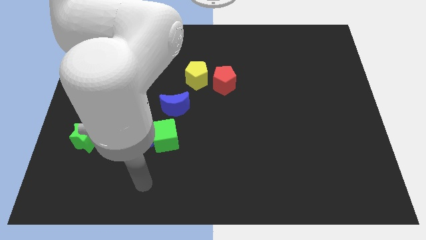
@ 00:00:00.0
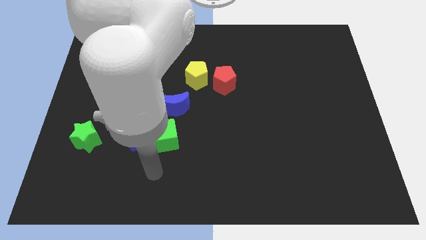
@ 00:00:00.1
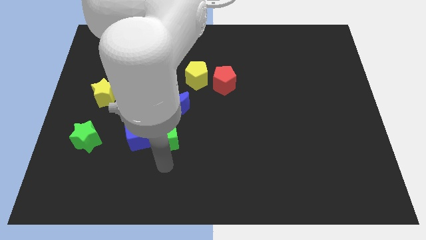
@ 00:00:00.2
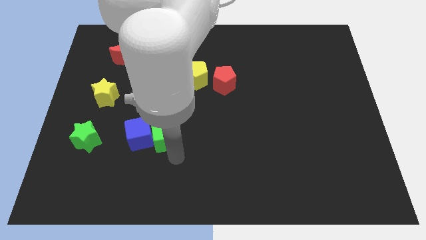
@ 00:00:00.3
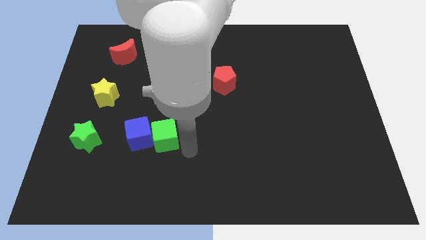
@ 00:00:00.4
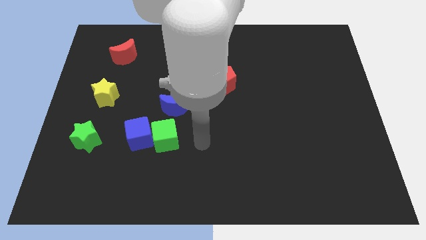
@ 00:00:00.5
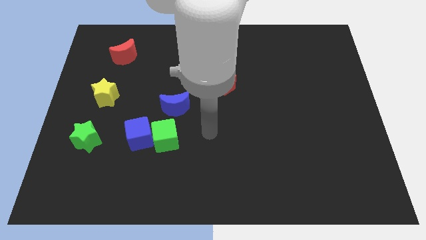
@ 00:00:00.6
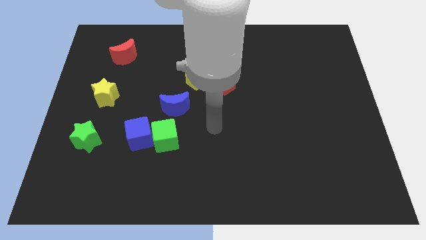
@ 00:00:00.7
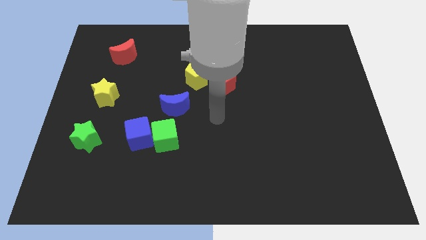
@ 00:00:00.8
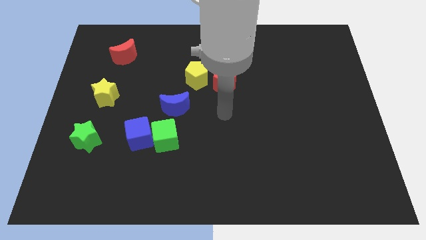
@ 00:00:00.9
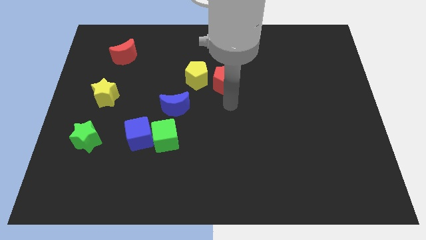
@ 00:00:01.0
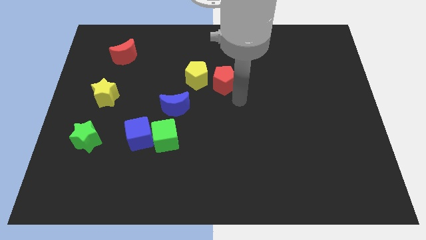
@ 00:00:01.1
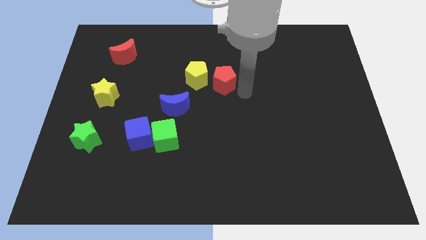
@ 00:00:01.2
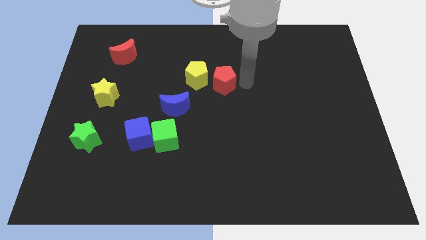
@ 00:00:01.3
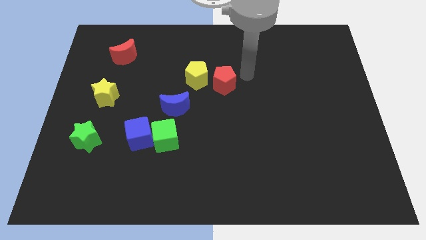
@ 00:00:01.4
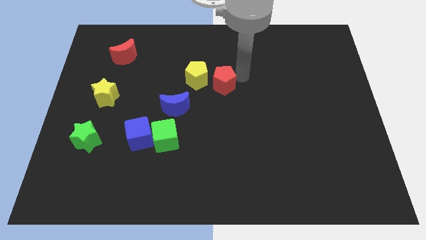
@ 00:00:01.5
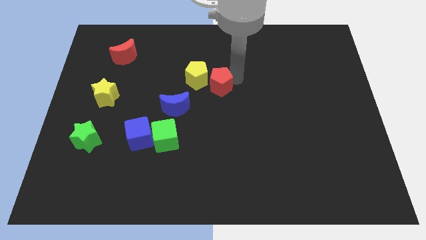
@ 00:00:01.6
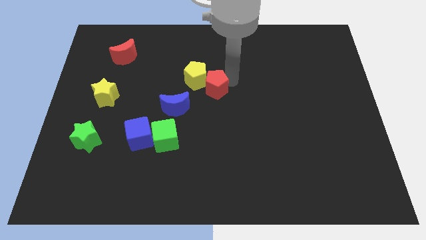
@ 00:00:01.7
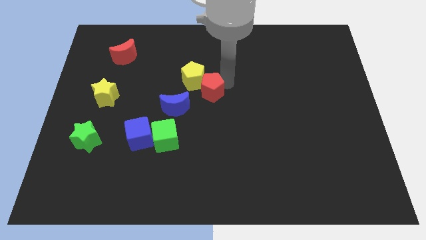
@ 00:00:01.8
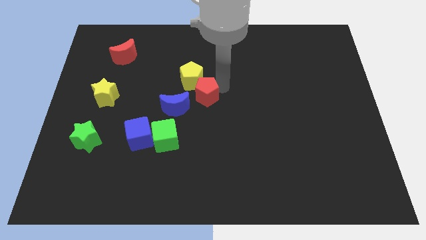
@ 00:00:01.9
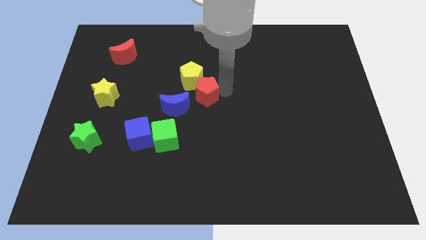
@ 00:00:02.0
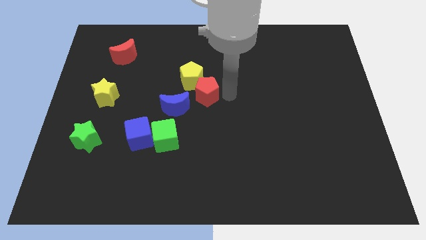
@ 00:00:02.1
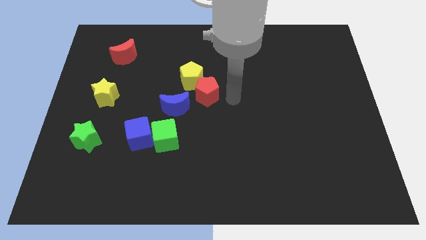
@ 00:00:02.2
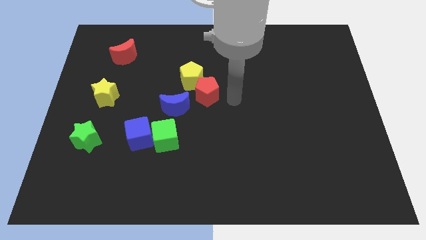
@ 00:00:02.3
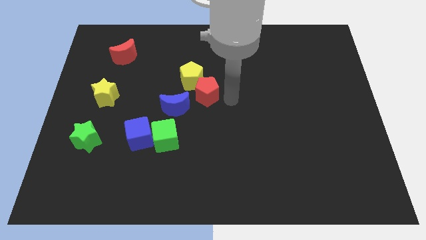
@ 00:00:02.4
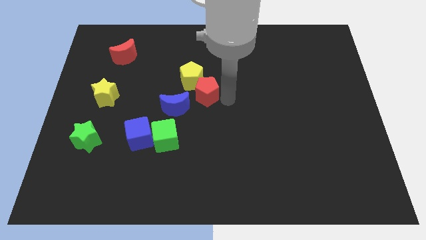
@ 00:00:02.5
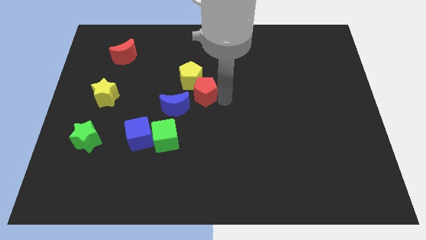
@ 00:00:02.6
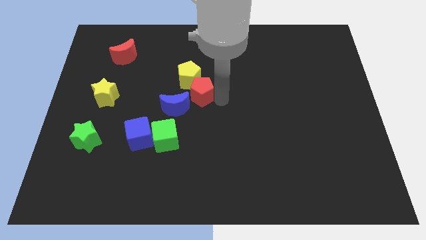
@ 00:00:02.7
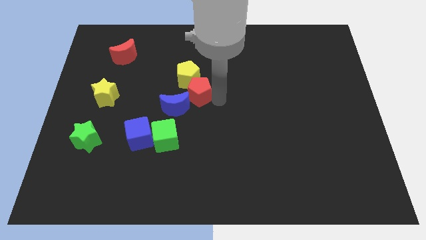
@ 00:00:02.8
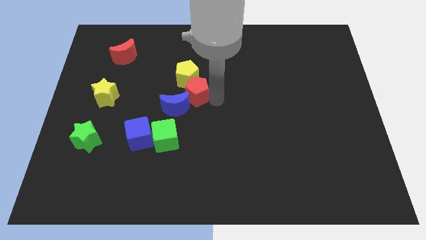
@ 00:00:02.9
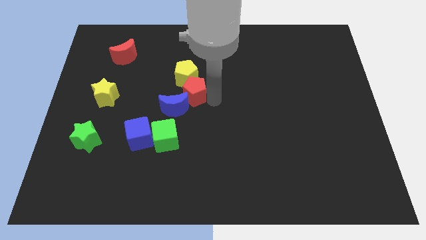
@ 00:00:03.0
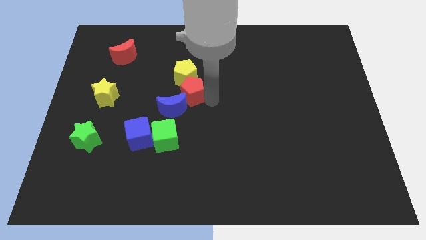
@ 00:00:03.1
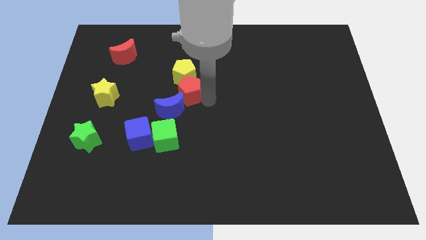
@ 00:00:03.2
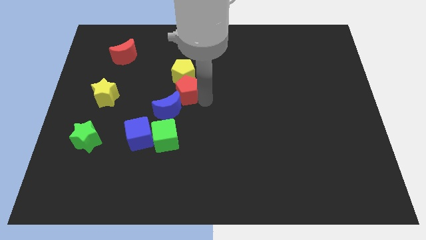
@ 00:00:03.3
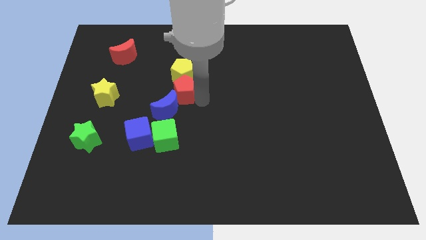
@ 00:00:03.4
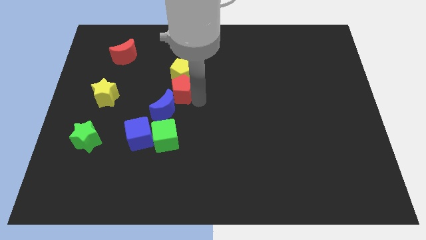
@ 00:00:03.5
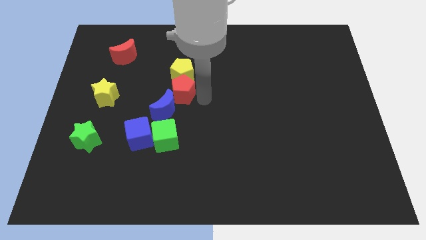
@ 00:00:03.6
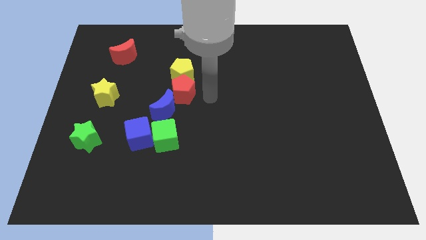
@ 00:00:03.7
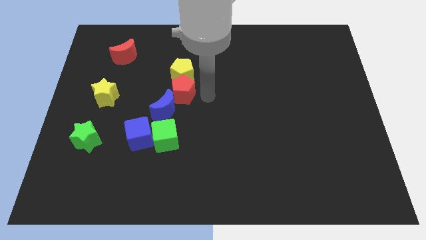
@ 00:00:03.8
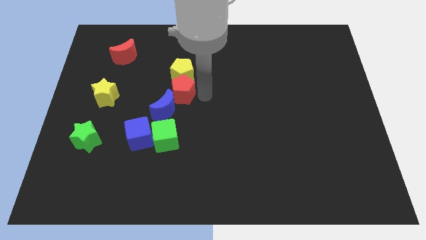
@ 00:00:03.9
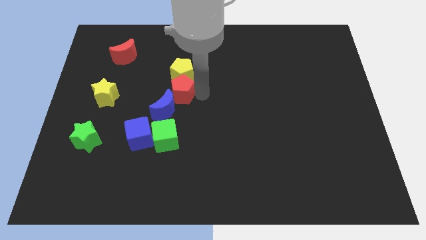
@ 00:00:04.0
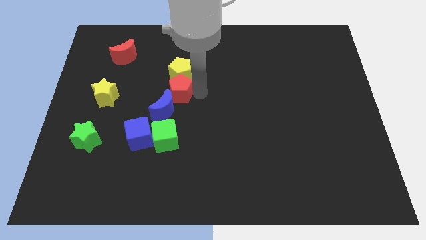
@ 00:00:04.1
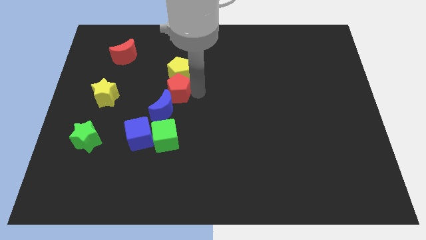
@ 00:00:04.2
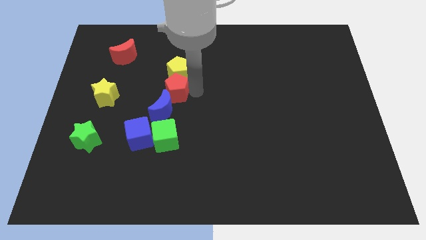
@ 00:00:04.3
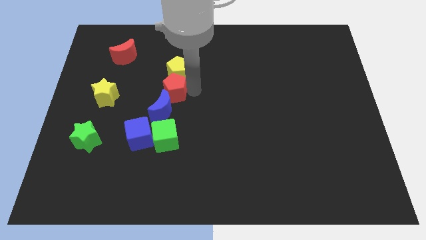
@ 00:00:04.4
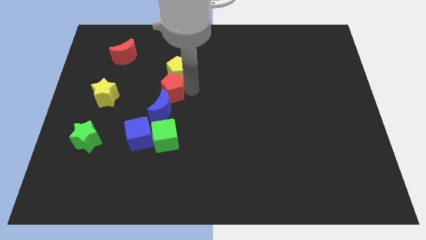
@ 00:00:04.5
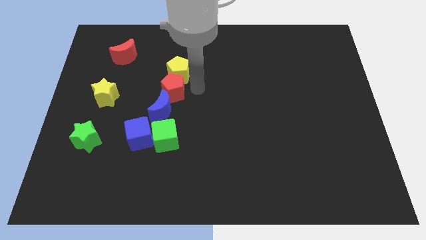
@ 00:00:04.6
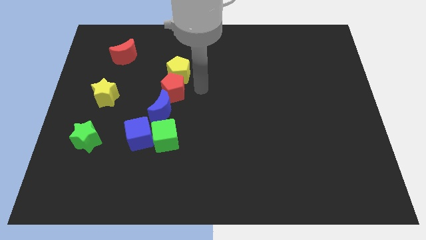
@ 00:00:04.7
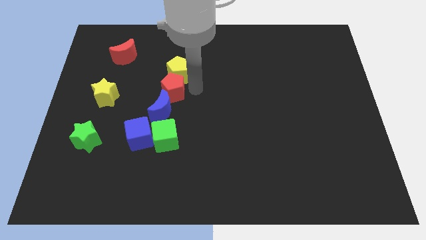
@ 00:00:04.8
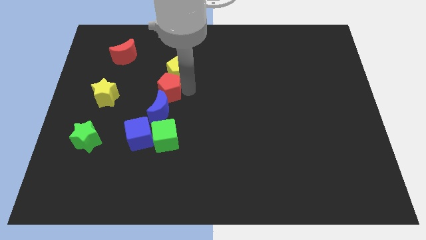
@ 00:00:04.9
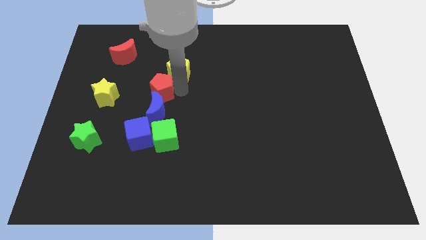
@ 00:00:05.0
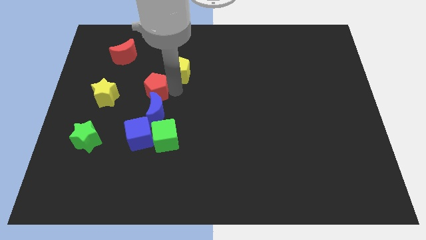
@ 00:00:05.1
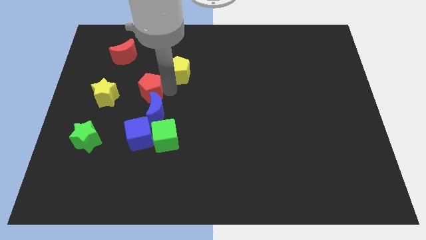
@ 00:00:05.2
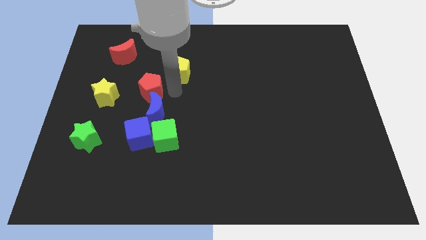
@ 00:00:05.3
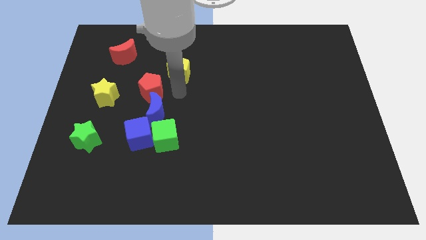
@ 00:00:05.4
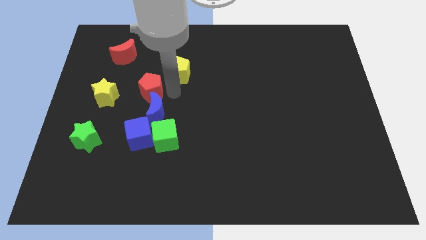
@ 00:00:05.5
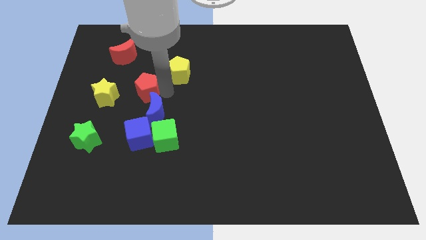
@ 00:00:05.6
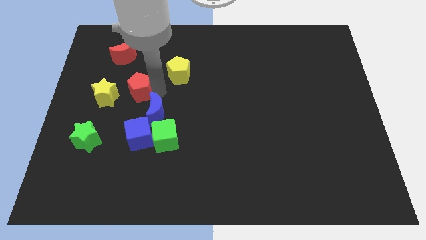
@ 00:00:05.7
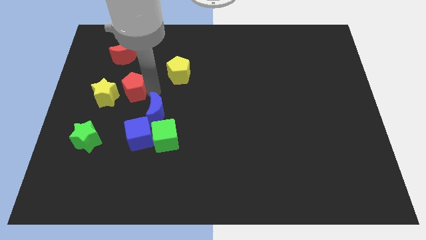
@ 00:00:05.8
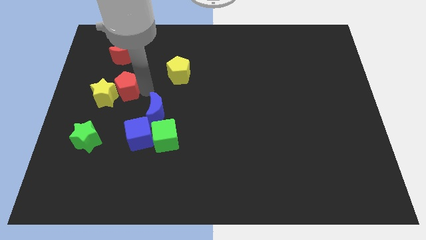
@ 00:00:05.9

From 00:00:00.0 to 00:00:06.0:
slide the red pentagon towards the yellow star

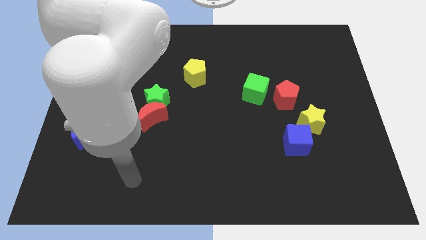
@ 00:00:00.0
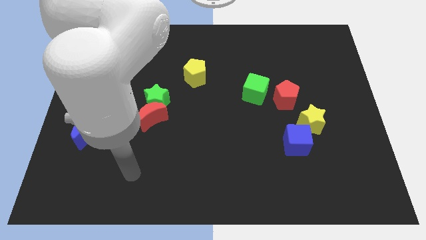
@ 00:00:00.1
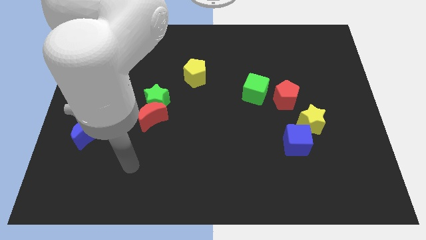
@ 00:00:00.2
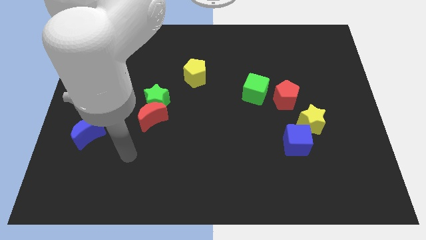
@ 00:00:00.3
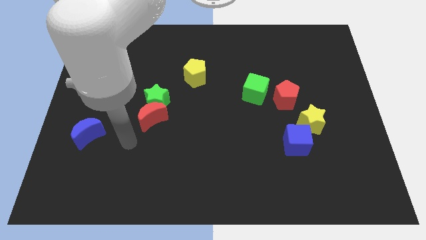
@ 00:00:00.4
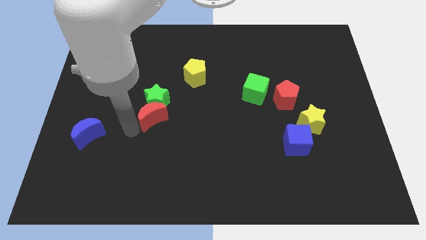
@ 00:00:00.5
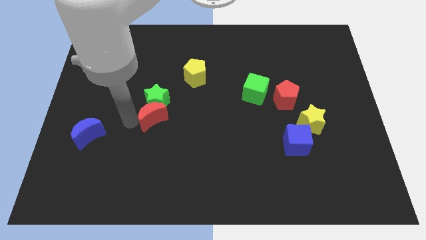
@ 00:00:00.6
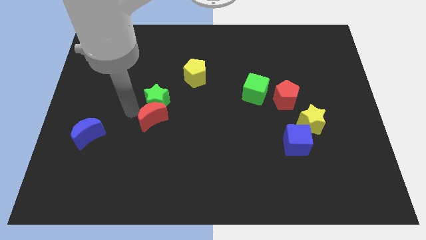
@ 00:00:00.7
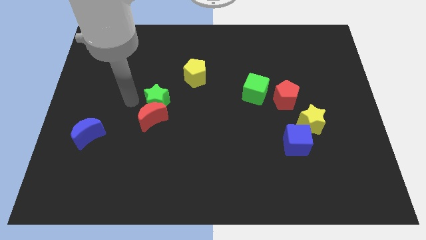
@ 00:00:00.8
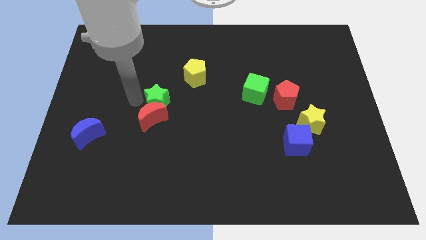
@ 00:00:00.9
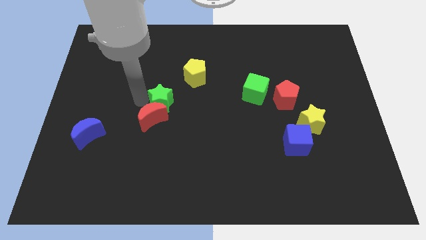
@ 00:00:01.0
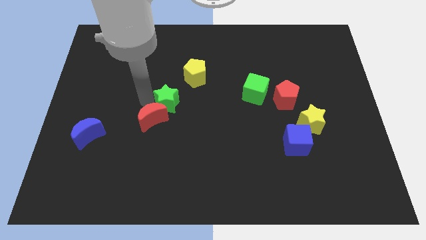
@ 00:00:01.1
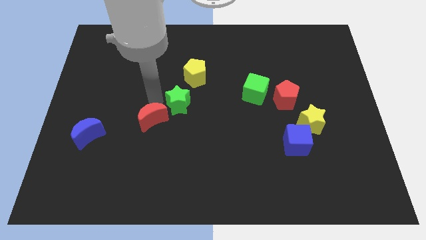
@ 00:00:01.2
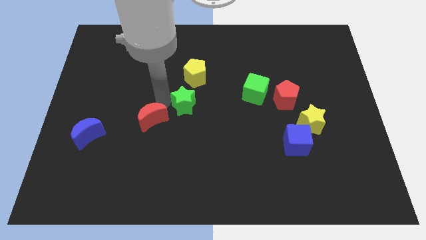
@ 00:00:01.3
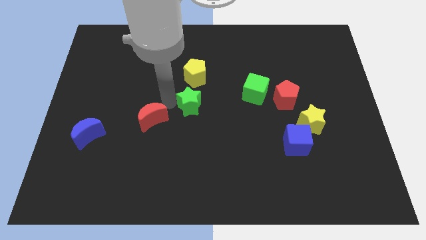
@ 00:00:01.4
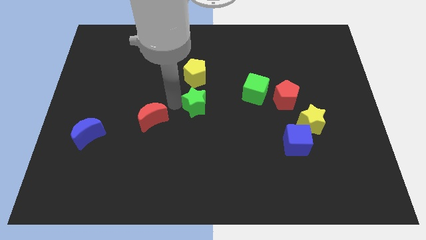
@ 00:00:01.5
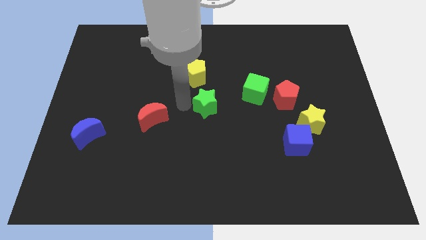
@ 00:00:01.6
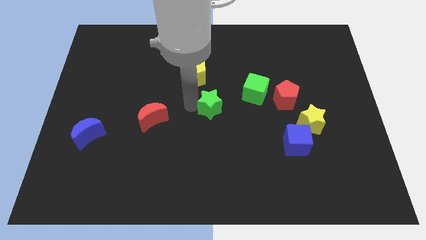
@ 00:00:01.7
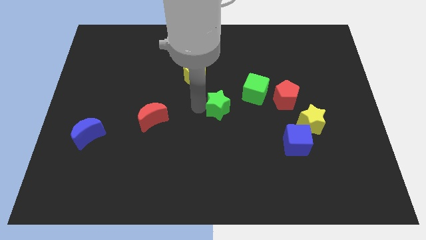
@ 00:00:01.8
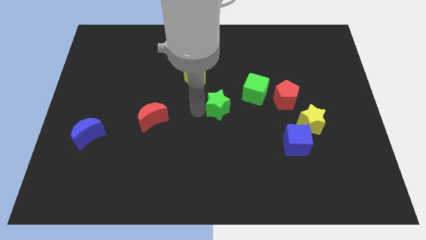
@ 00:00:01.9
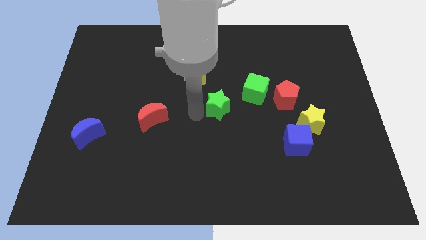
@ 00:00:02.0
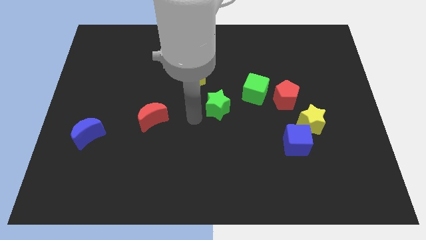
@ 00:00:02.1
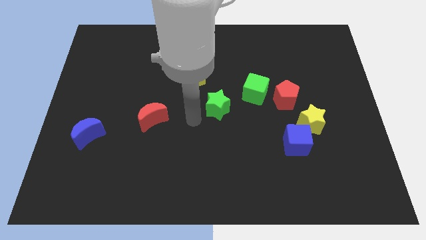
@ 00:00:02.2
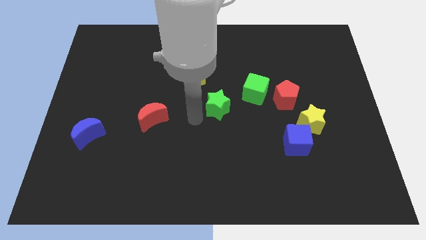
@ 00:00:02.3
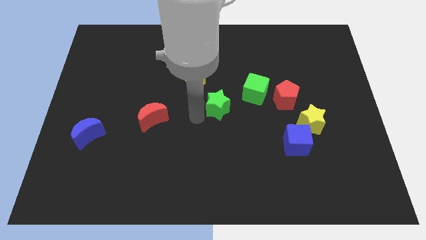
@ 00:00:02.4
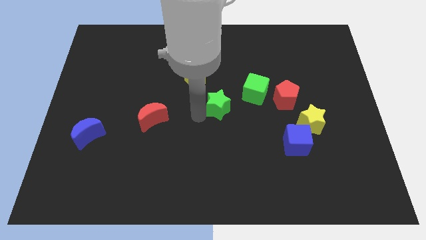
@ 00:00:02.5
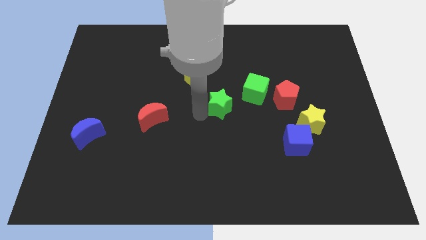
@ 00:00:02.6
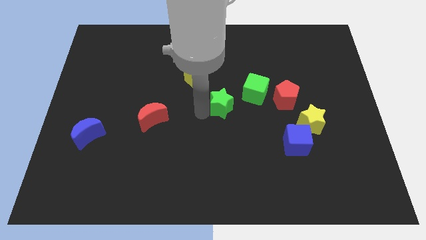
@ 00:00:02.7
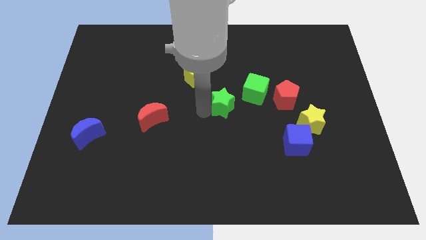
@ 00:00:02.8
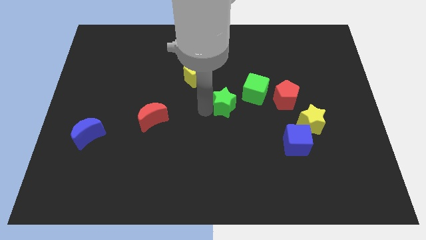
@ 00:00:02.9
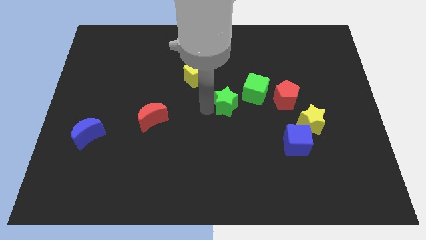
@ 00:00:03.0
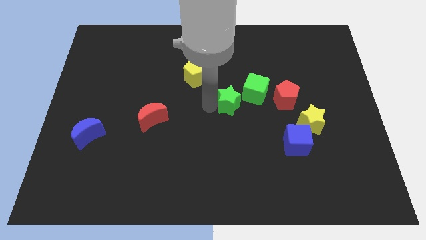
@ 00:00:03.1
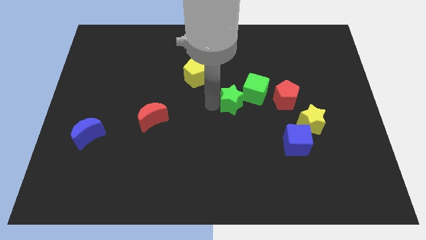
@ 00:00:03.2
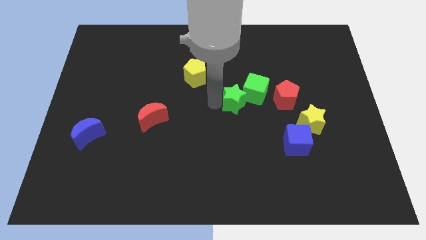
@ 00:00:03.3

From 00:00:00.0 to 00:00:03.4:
push the green star next to the green cube
